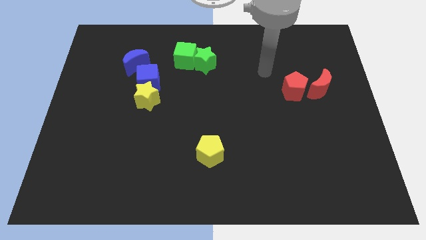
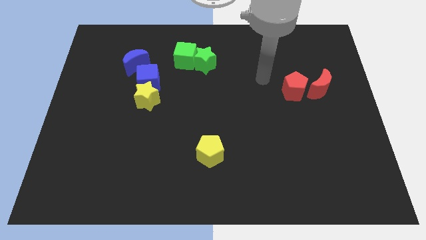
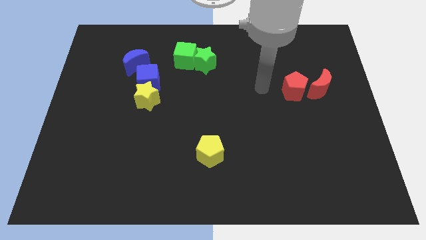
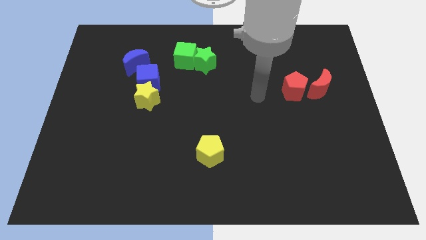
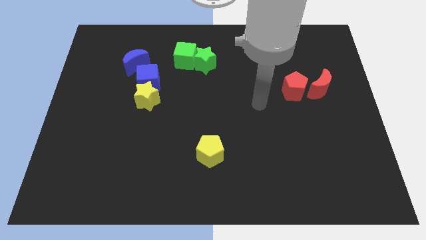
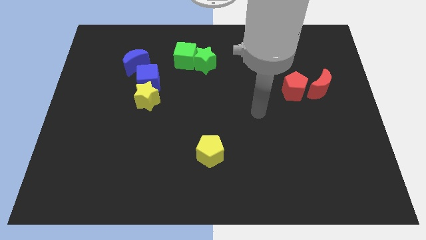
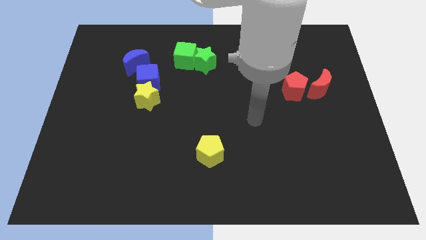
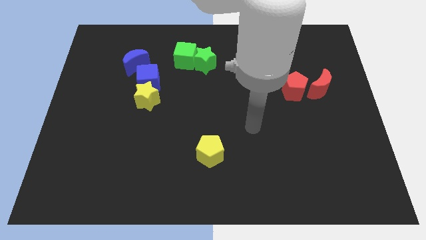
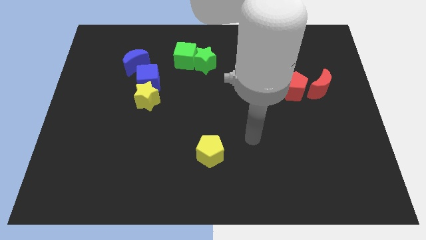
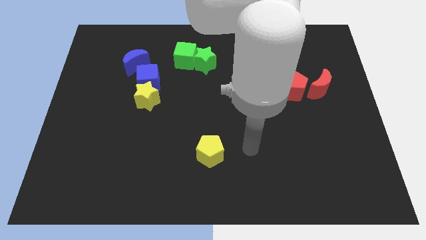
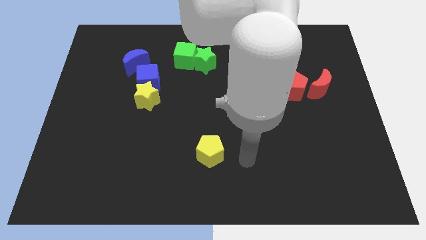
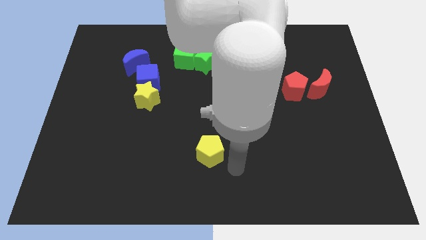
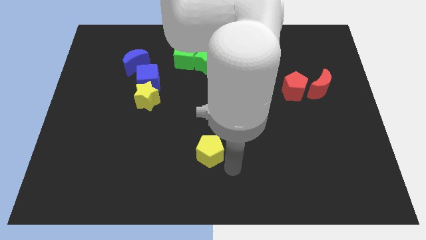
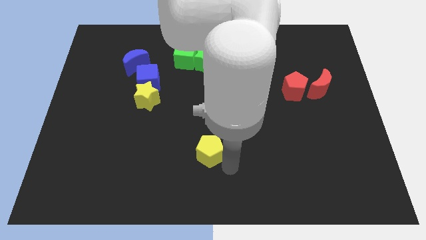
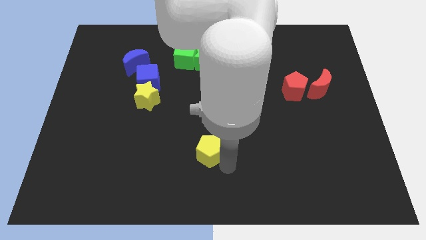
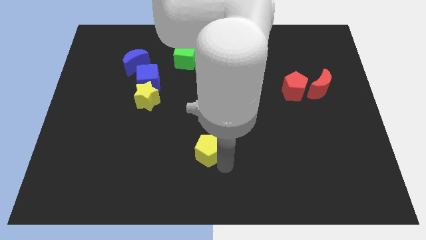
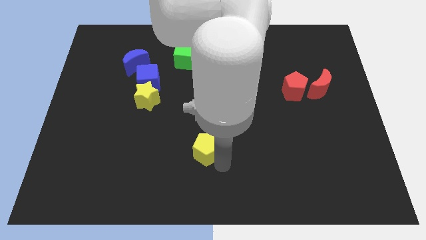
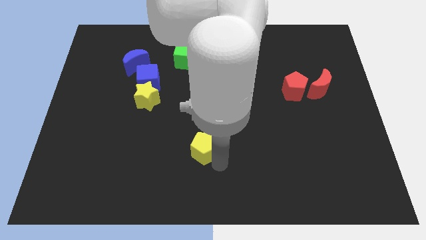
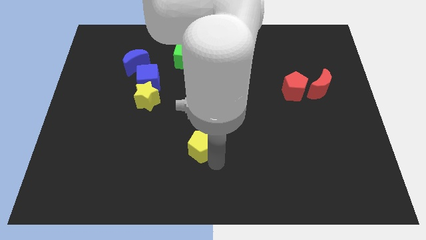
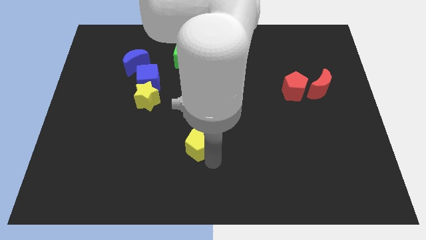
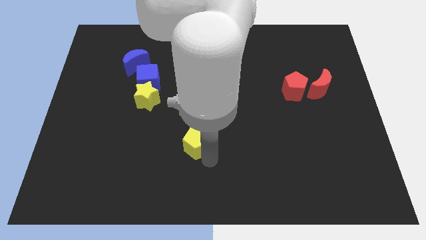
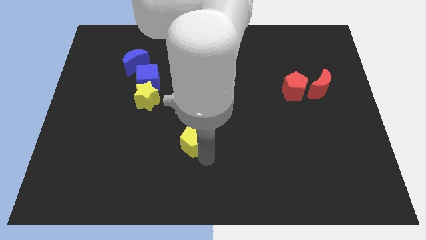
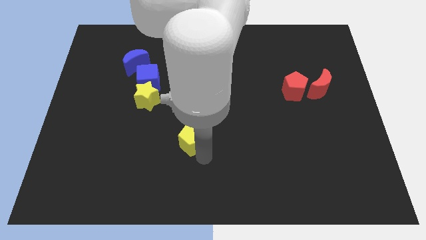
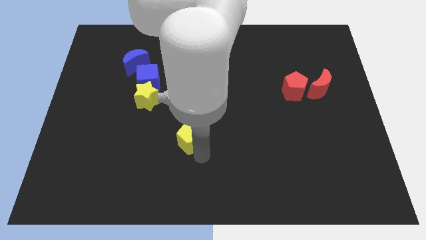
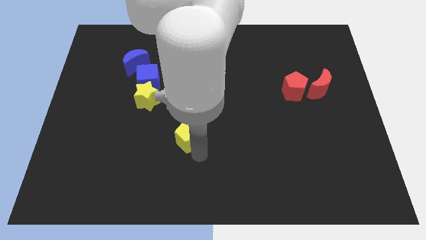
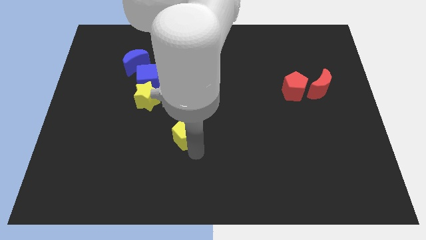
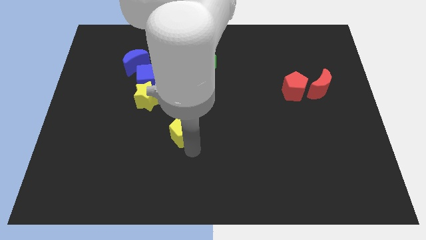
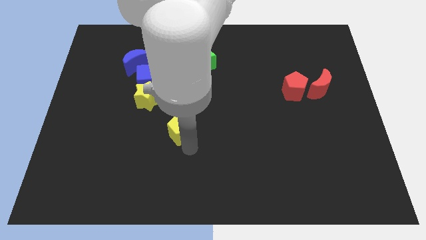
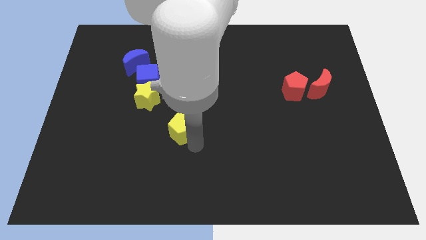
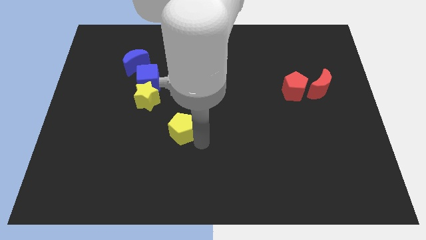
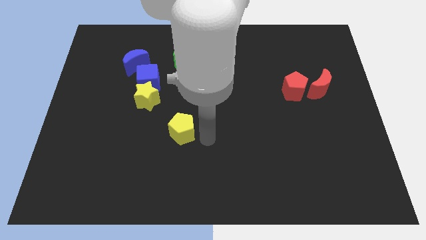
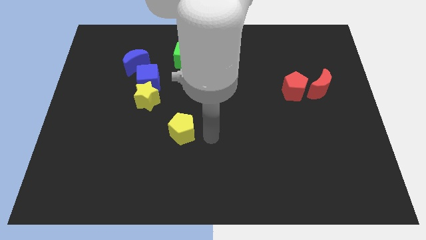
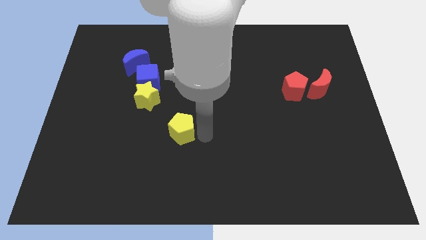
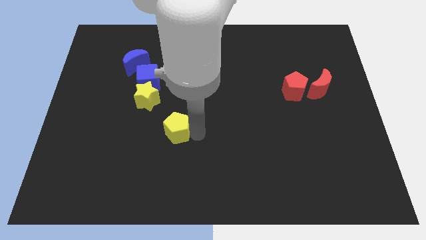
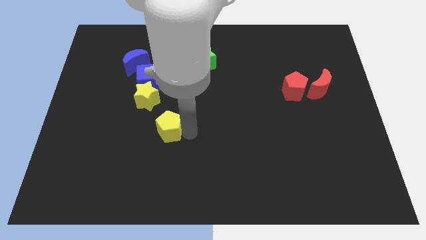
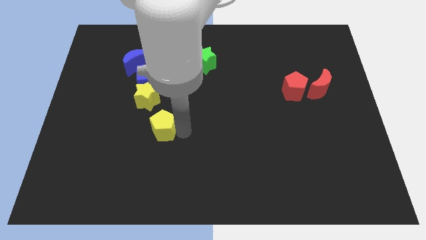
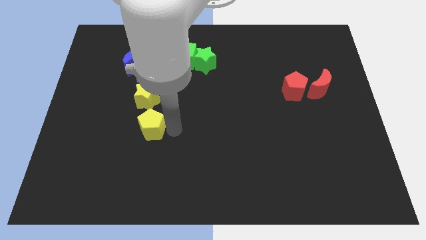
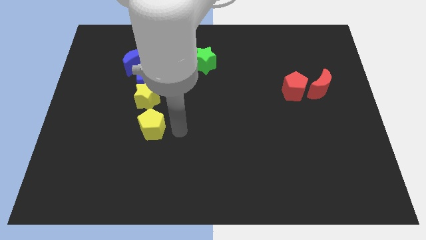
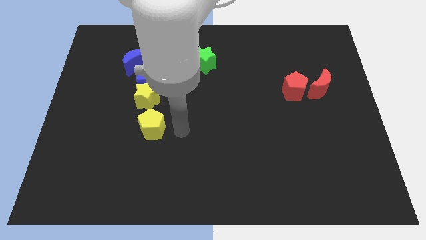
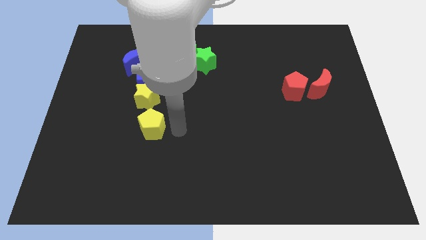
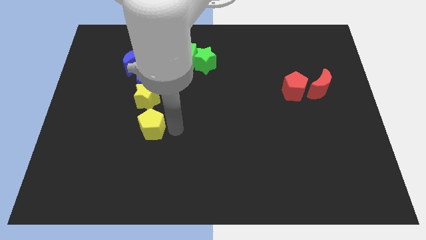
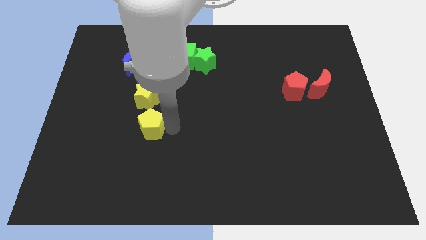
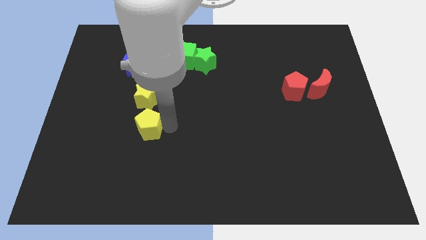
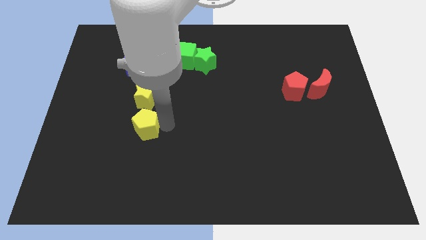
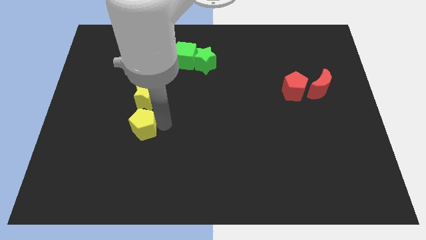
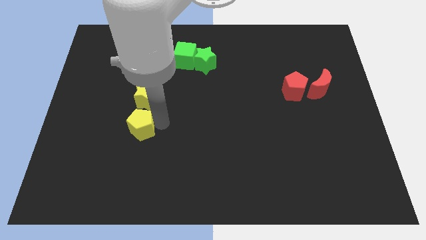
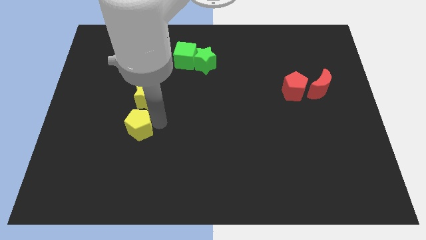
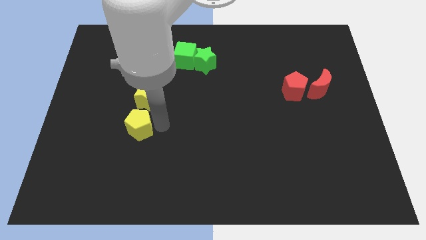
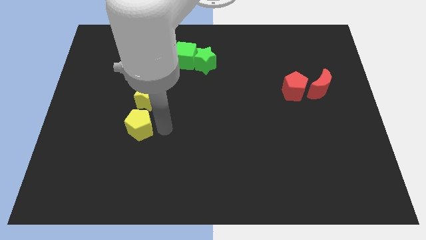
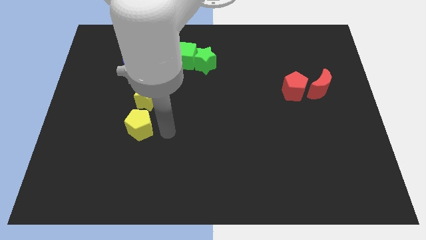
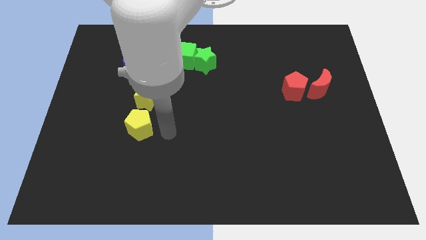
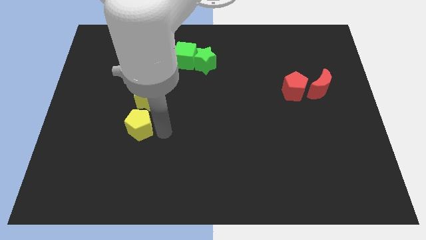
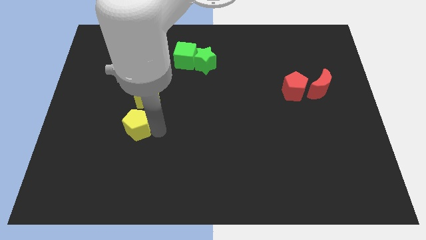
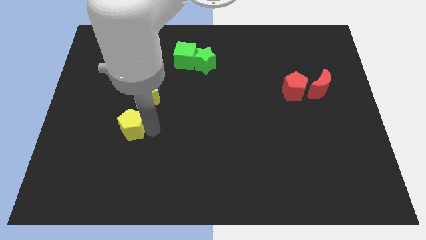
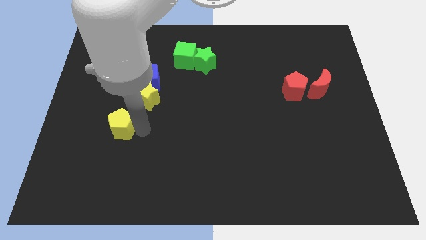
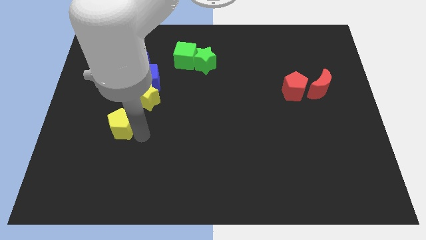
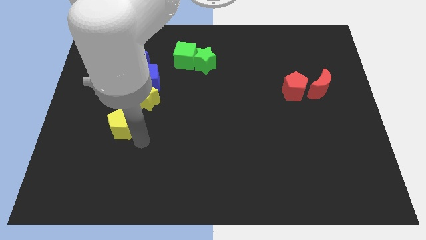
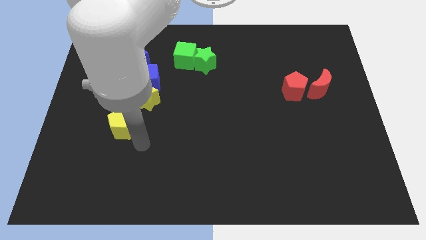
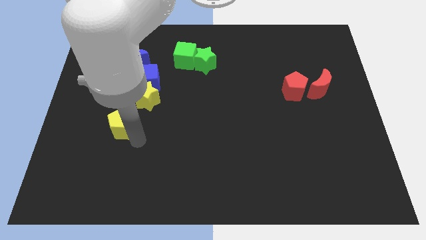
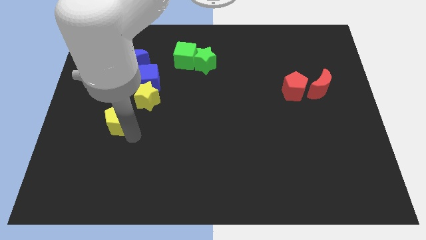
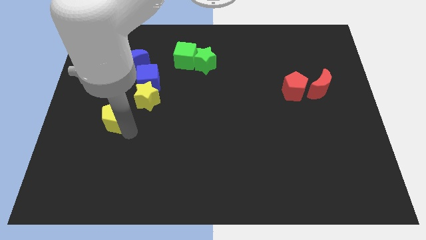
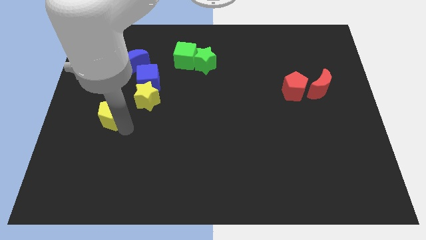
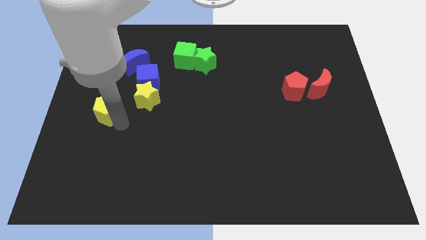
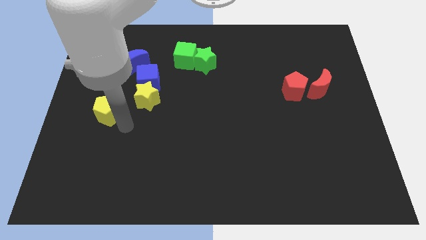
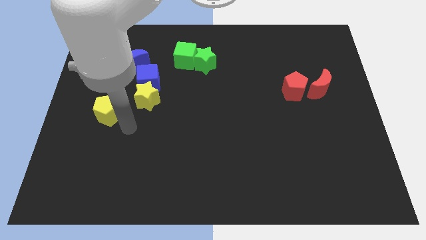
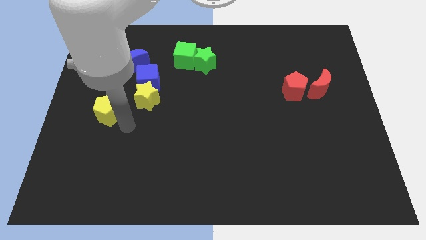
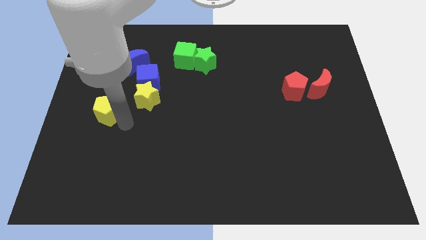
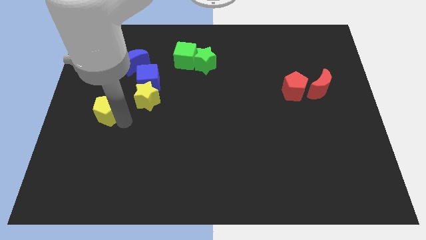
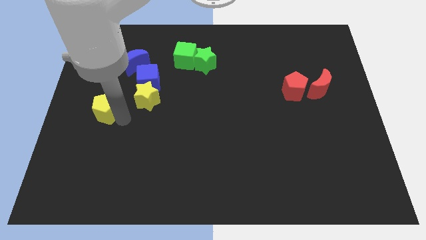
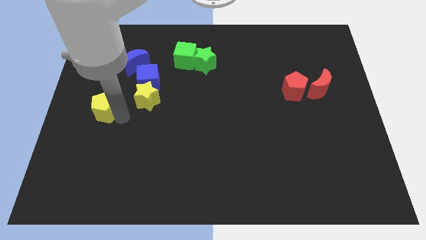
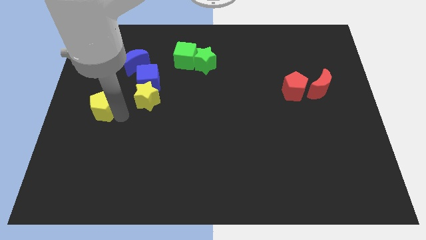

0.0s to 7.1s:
put the yellow pentagon to the left side of the board
